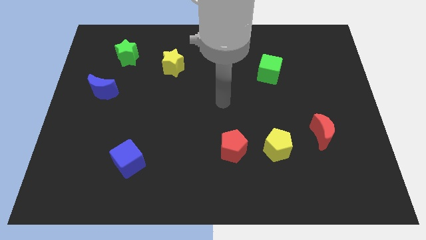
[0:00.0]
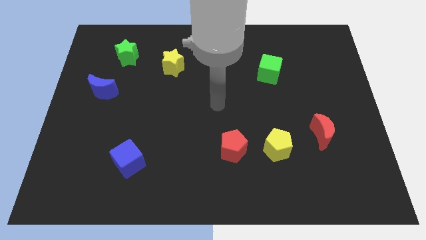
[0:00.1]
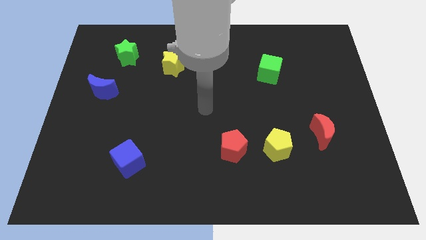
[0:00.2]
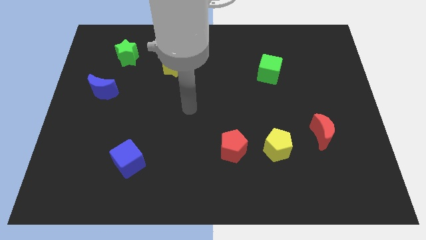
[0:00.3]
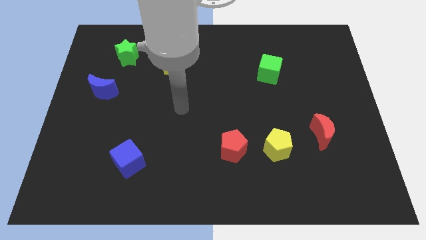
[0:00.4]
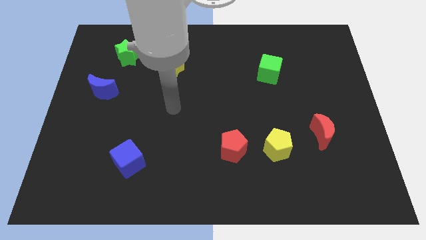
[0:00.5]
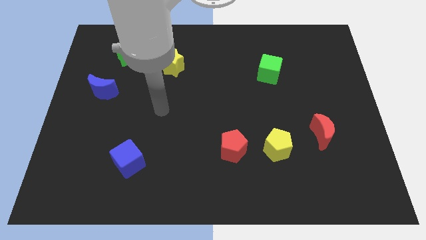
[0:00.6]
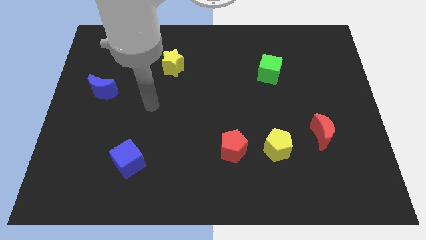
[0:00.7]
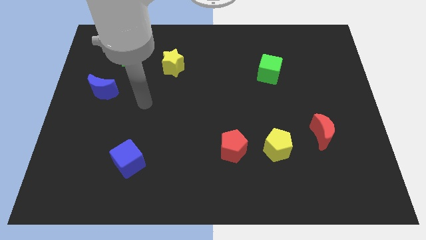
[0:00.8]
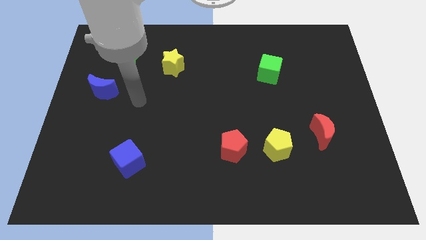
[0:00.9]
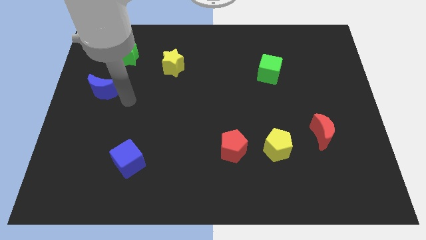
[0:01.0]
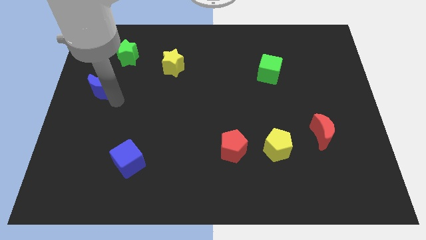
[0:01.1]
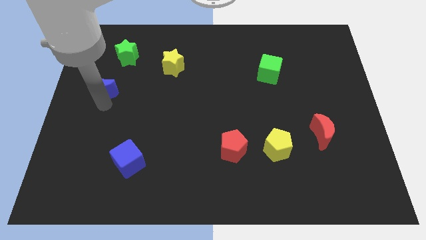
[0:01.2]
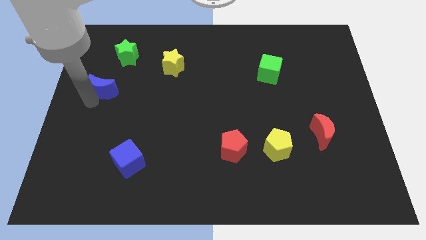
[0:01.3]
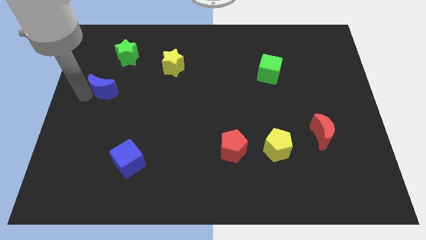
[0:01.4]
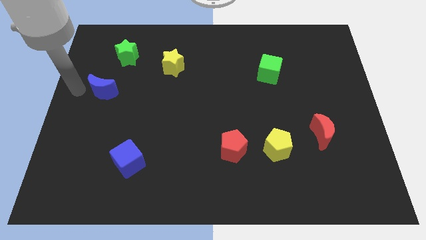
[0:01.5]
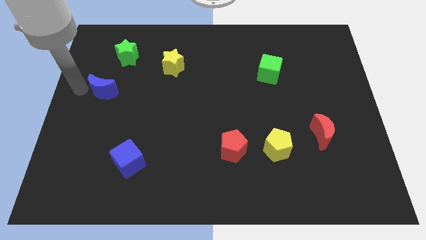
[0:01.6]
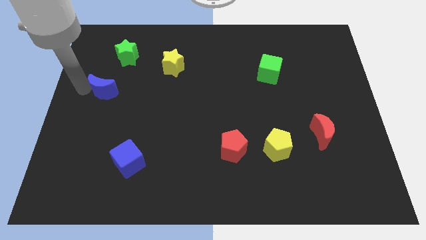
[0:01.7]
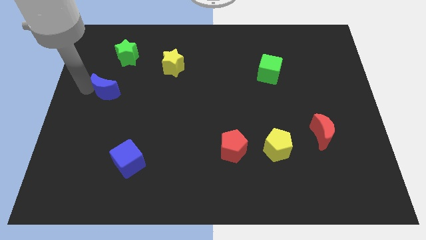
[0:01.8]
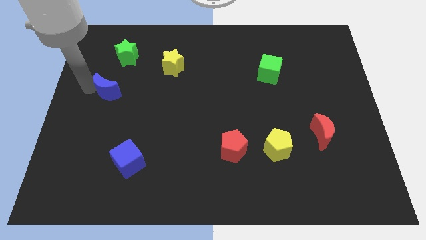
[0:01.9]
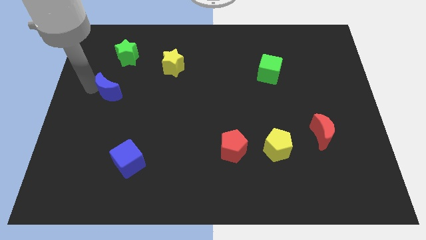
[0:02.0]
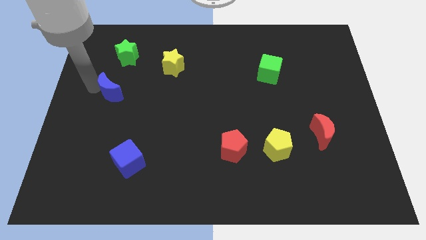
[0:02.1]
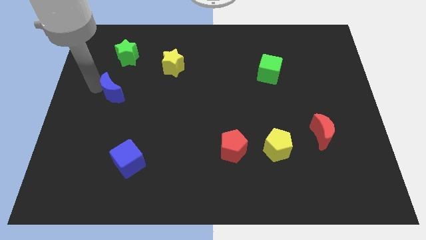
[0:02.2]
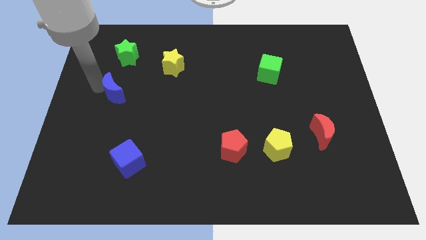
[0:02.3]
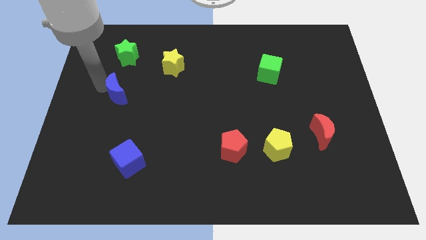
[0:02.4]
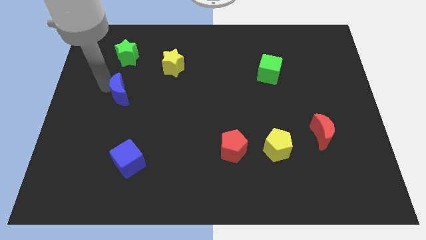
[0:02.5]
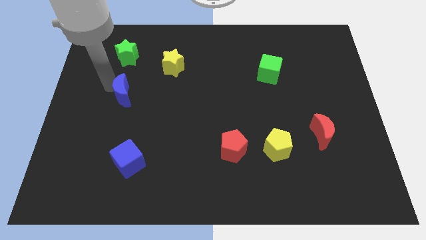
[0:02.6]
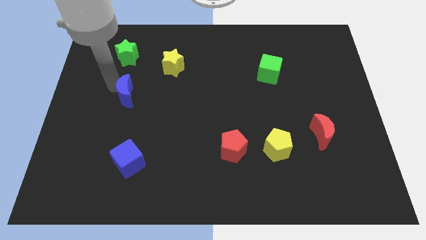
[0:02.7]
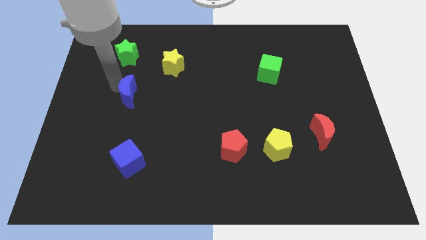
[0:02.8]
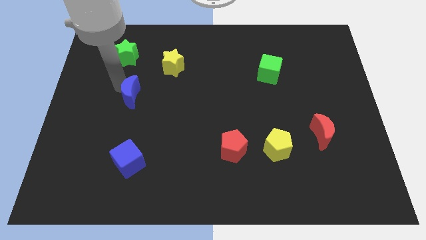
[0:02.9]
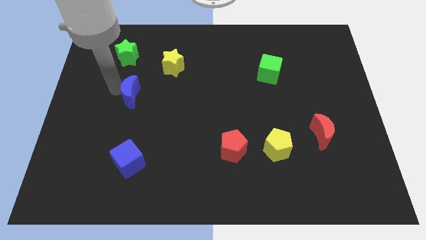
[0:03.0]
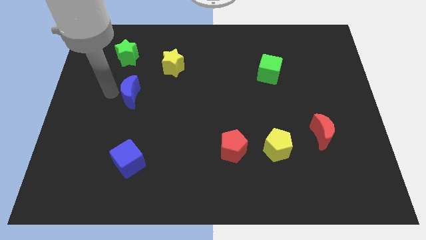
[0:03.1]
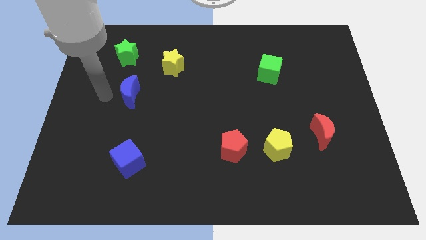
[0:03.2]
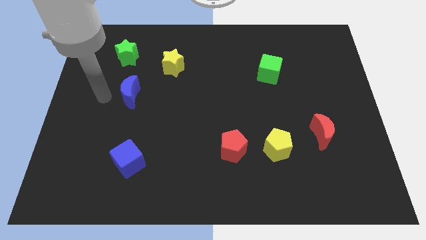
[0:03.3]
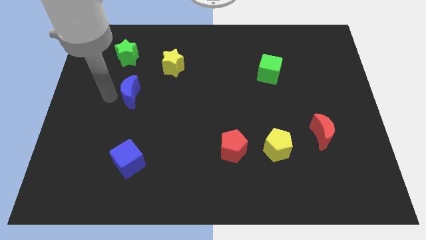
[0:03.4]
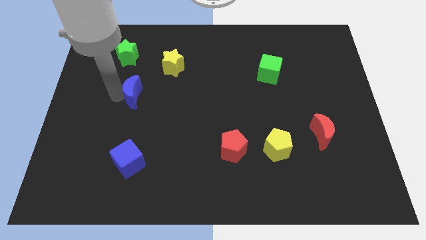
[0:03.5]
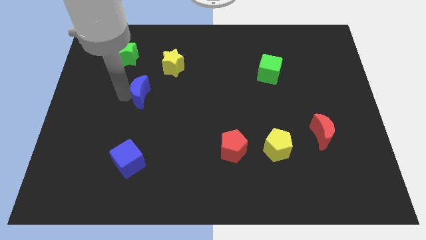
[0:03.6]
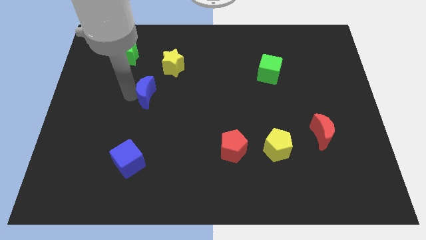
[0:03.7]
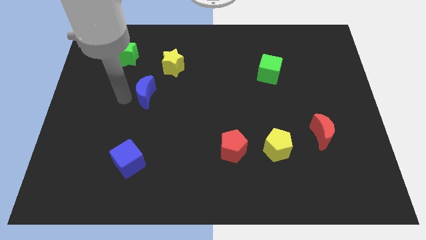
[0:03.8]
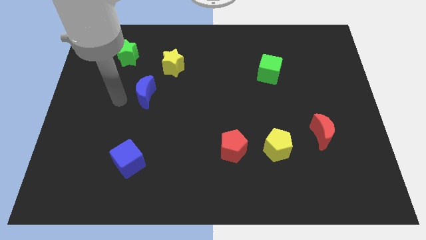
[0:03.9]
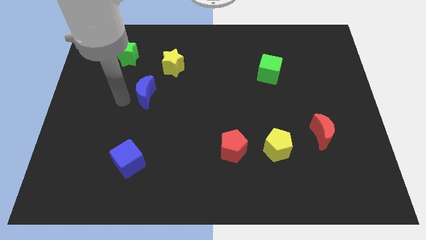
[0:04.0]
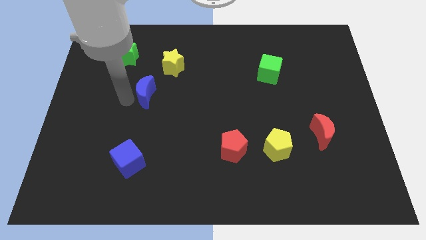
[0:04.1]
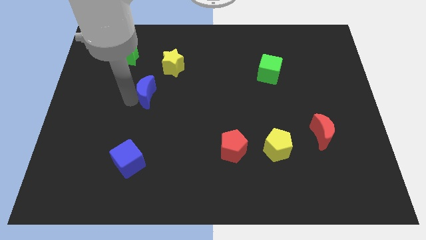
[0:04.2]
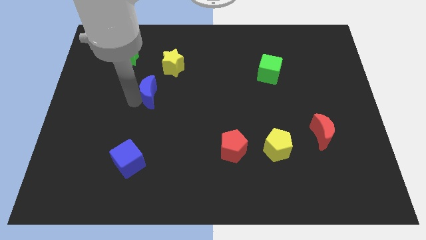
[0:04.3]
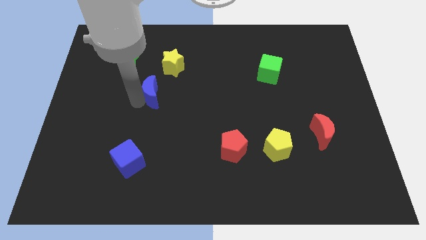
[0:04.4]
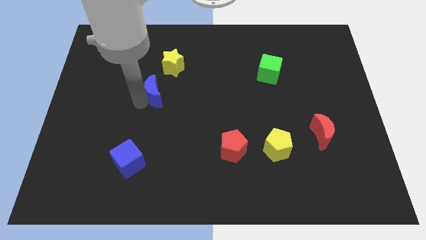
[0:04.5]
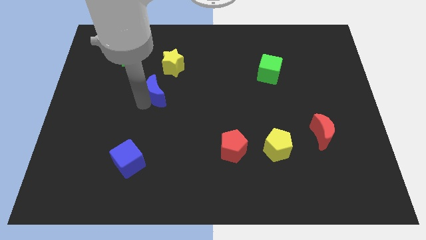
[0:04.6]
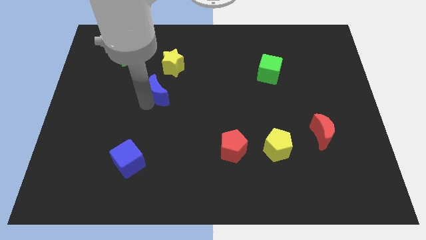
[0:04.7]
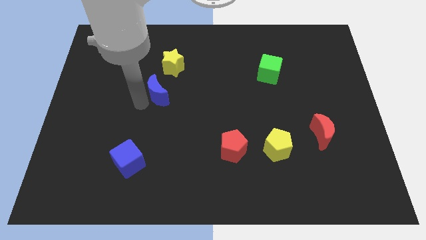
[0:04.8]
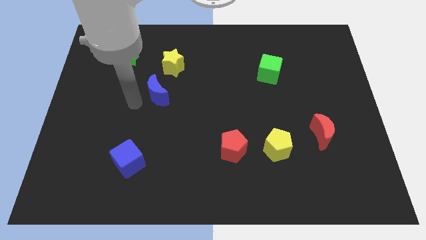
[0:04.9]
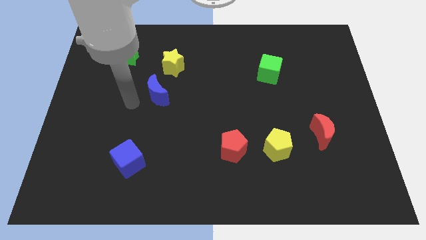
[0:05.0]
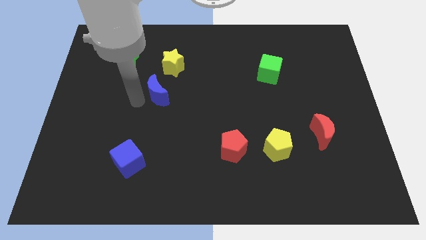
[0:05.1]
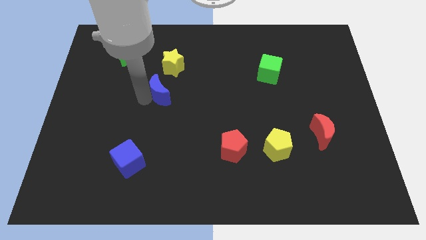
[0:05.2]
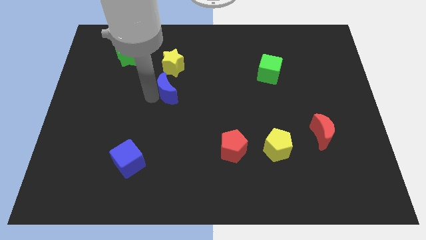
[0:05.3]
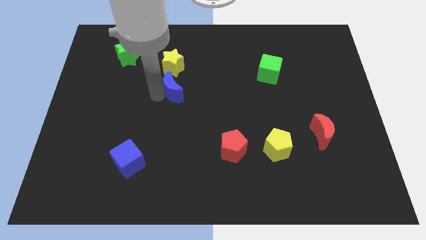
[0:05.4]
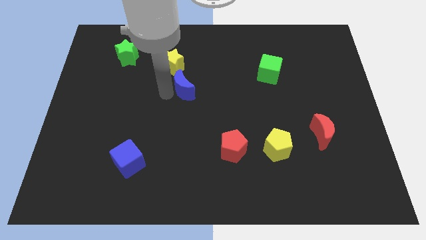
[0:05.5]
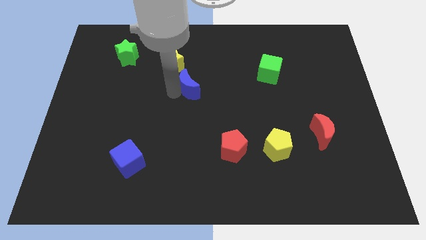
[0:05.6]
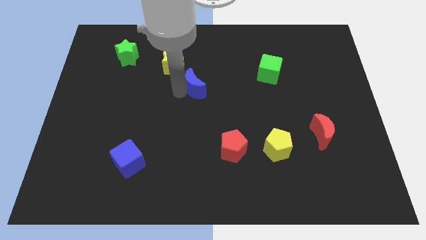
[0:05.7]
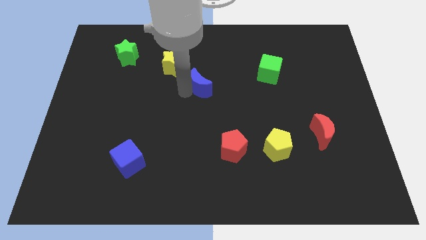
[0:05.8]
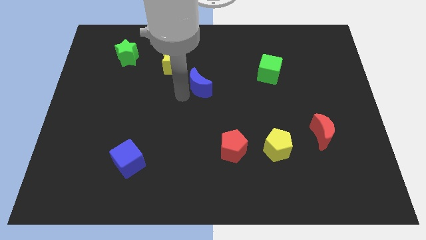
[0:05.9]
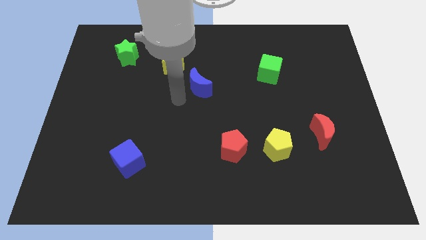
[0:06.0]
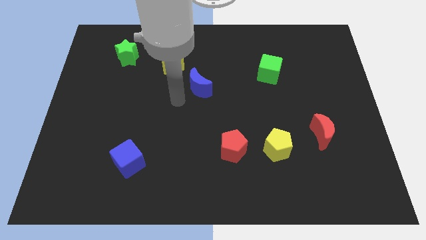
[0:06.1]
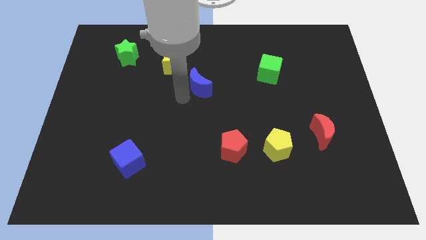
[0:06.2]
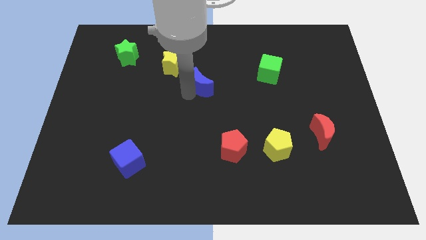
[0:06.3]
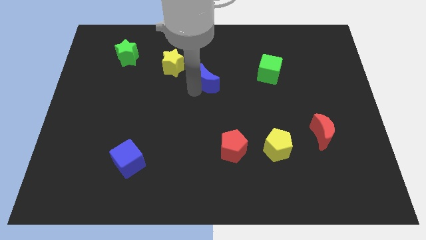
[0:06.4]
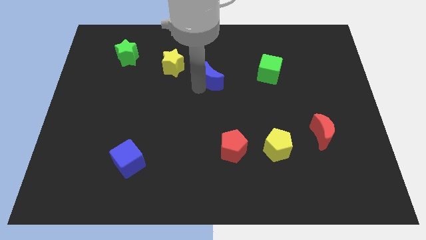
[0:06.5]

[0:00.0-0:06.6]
put the blue moon just left of the green cube
